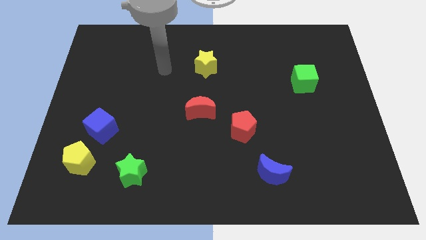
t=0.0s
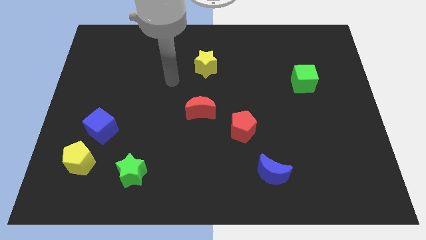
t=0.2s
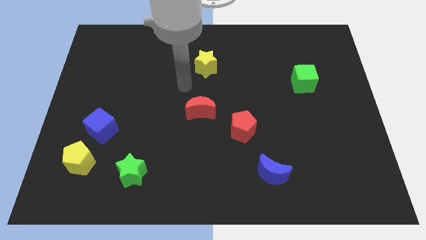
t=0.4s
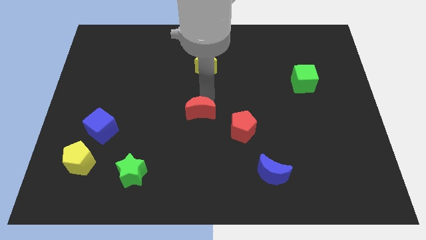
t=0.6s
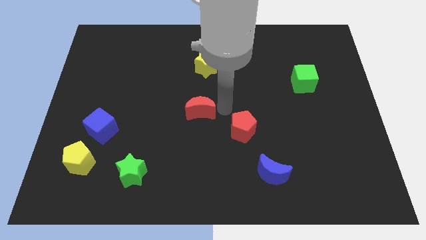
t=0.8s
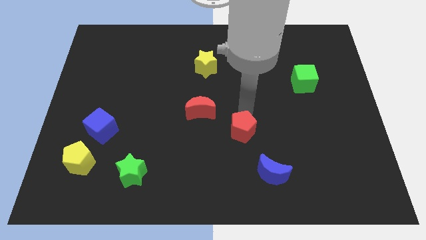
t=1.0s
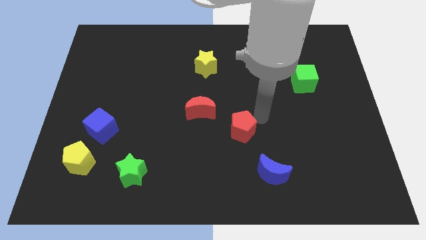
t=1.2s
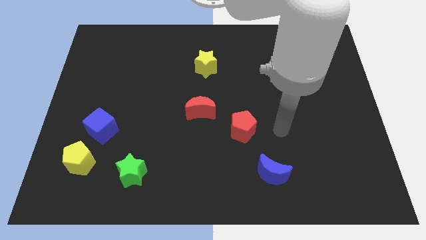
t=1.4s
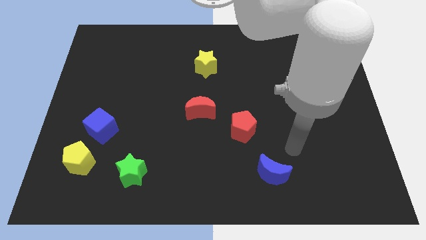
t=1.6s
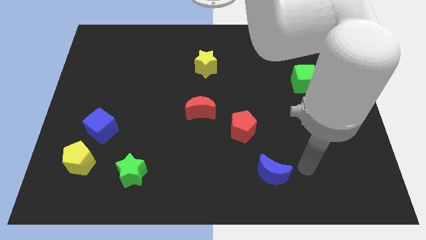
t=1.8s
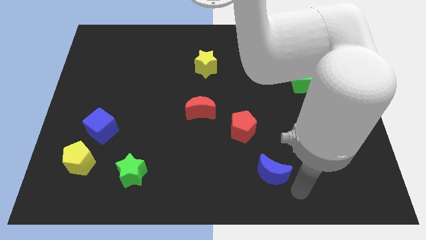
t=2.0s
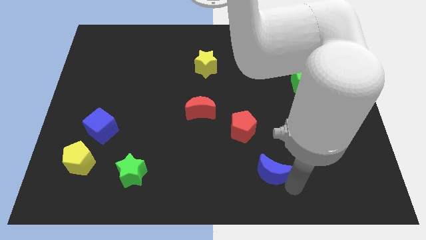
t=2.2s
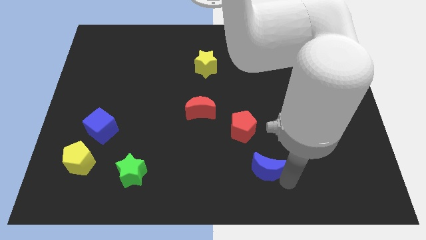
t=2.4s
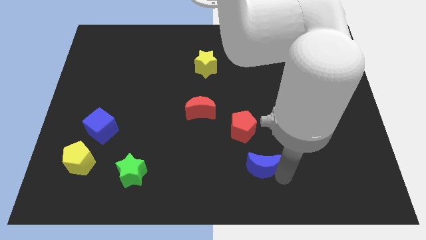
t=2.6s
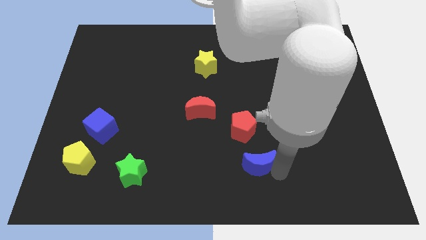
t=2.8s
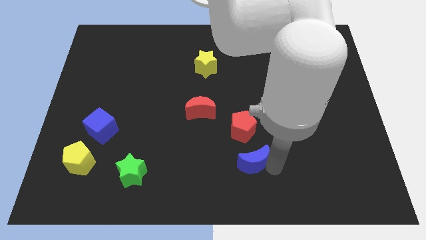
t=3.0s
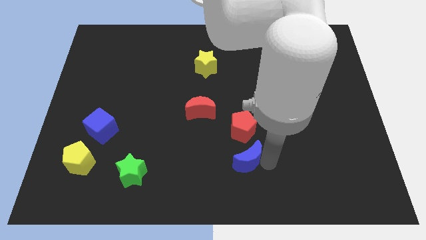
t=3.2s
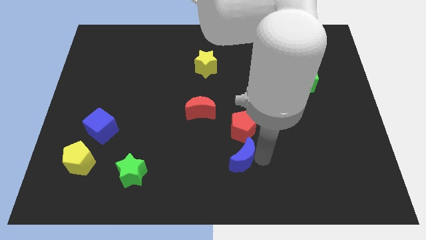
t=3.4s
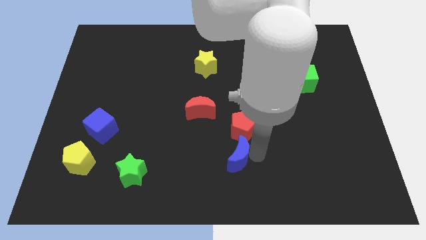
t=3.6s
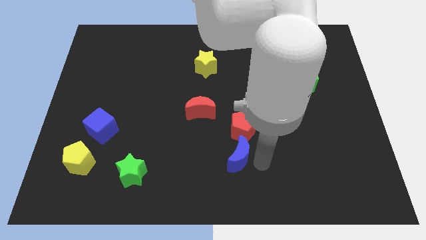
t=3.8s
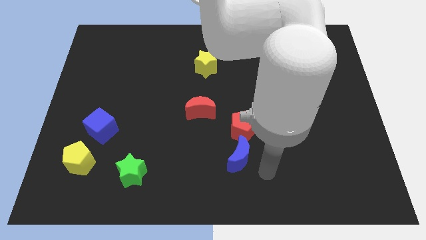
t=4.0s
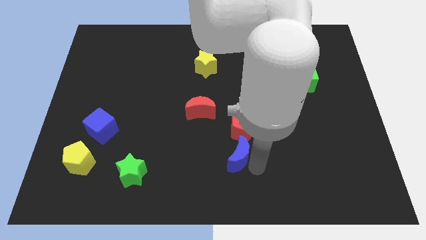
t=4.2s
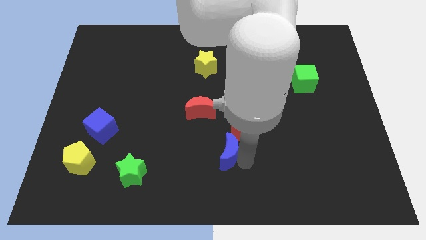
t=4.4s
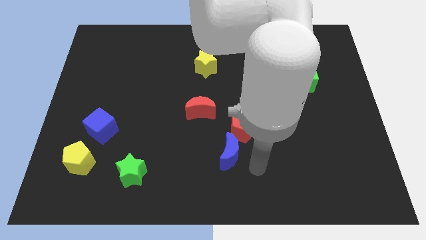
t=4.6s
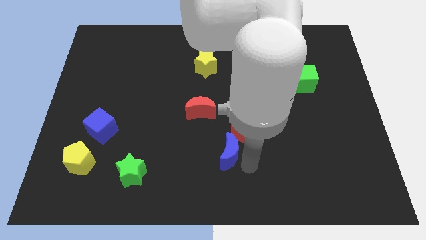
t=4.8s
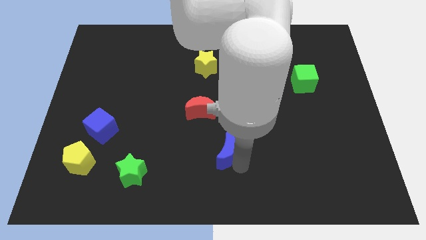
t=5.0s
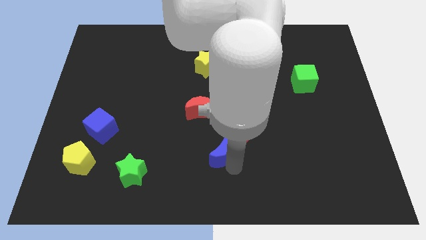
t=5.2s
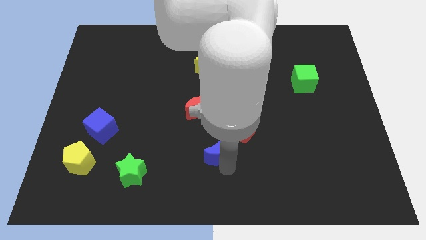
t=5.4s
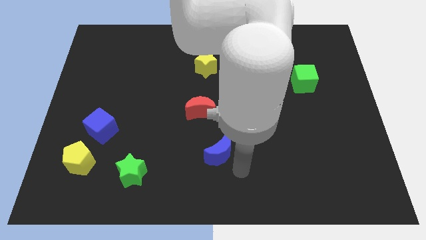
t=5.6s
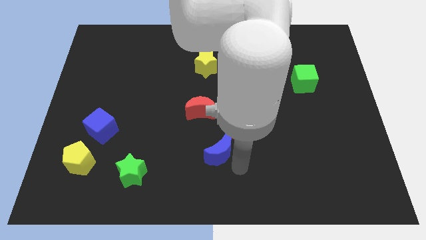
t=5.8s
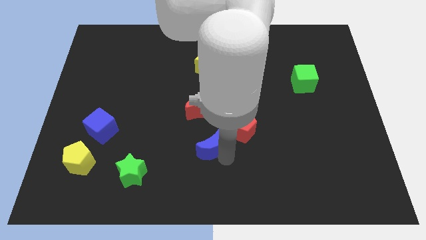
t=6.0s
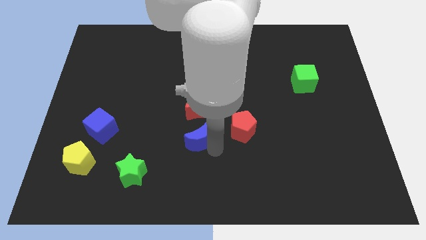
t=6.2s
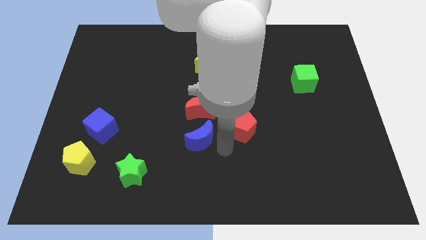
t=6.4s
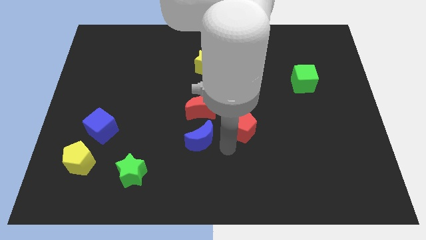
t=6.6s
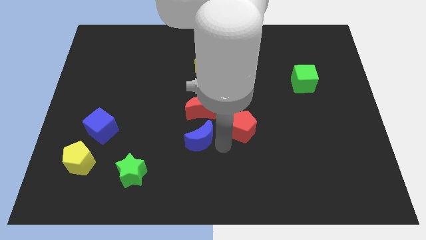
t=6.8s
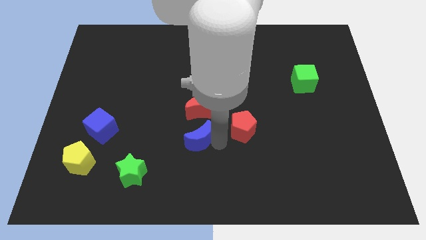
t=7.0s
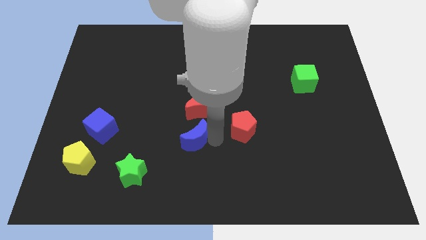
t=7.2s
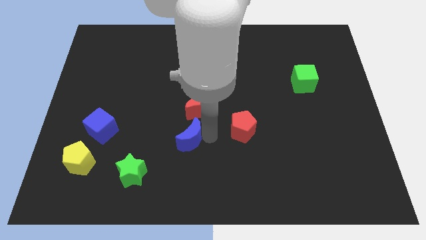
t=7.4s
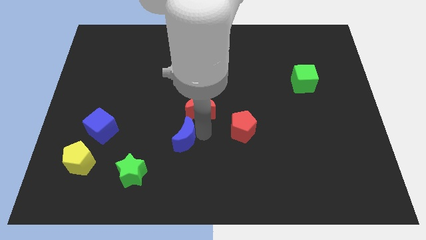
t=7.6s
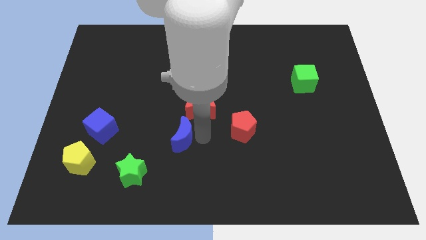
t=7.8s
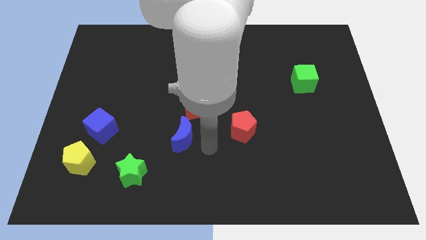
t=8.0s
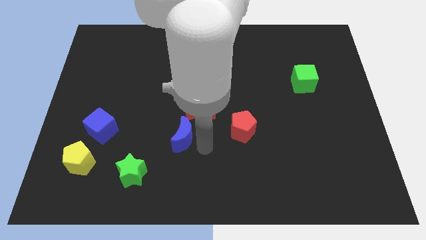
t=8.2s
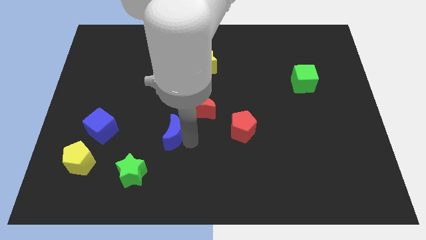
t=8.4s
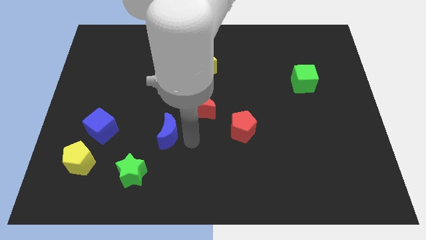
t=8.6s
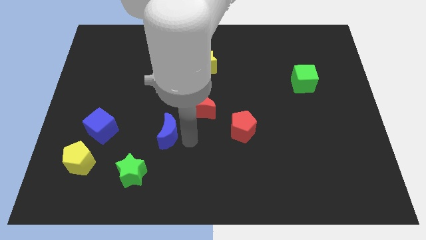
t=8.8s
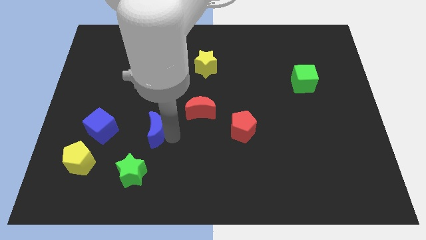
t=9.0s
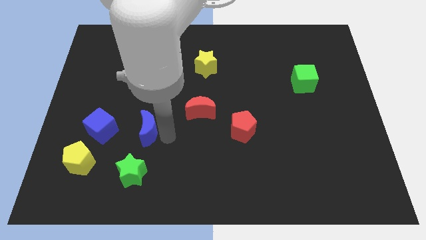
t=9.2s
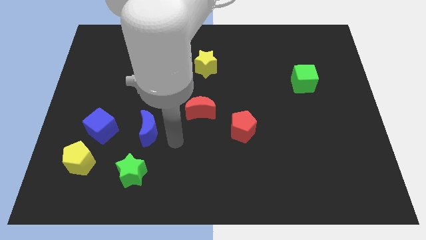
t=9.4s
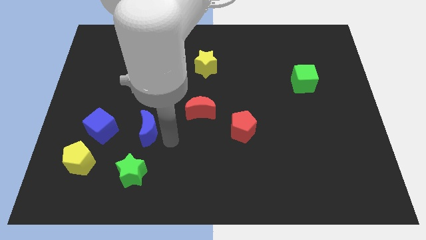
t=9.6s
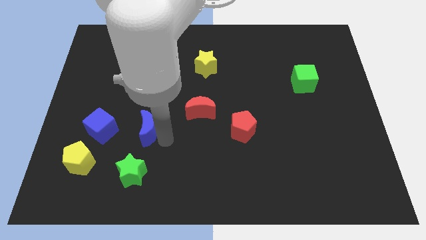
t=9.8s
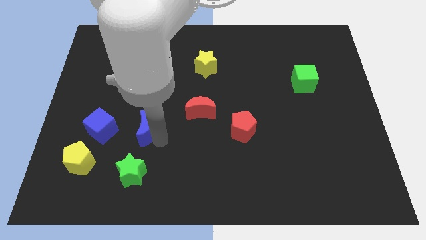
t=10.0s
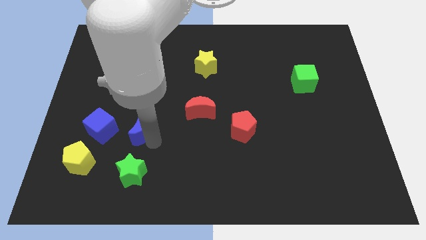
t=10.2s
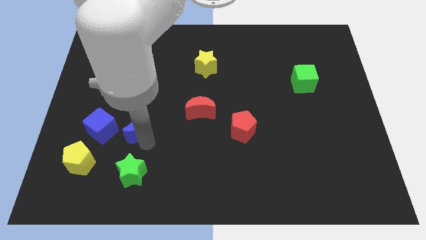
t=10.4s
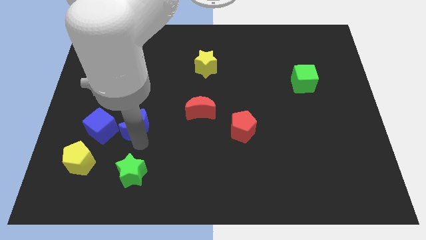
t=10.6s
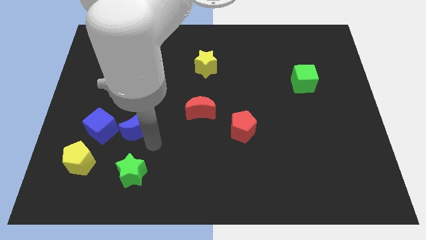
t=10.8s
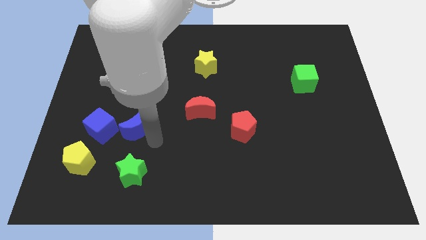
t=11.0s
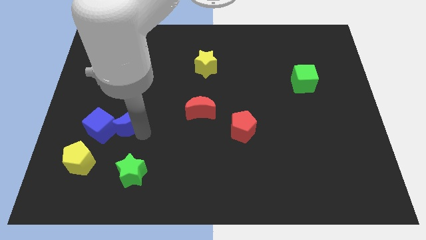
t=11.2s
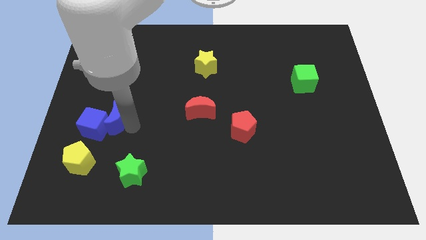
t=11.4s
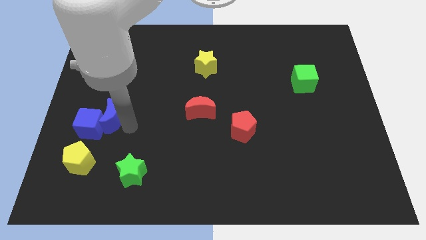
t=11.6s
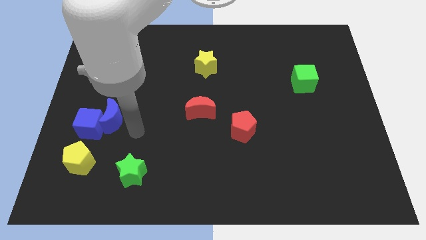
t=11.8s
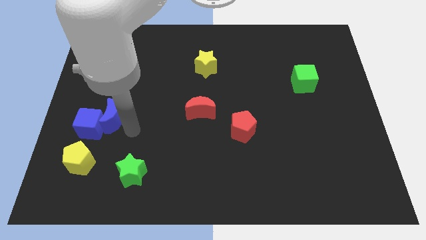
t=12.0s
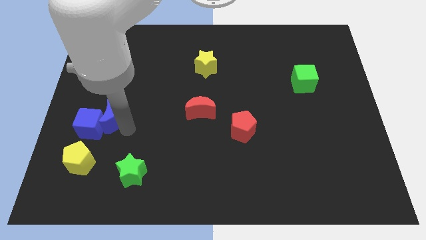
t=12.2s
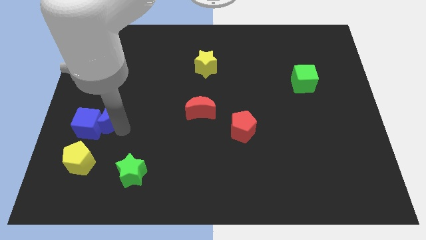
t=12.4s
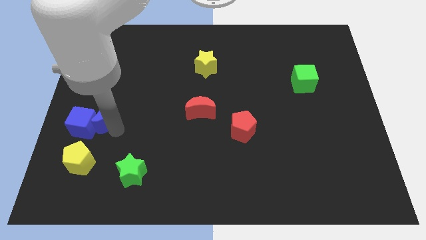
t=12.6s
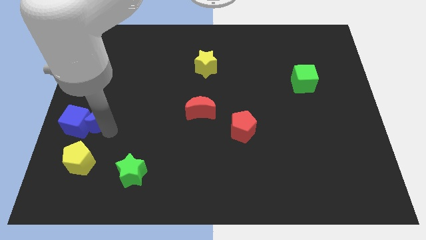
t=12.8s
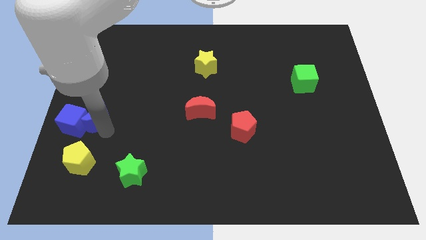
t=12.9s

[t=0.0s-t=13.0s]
put the blue moon to the left side of the board
